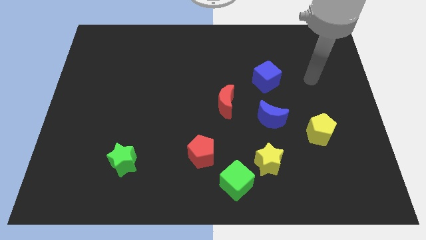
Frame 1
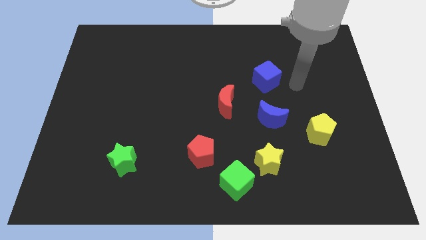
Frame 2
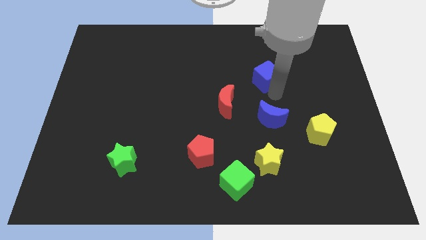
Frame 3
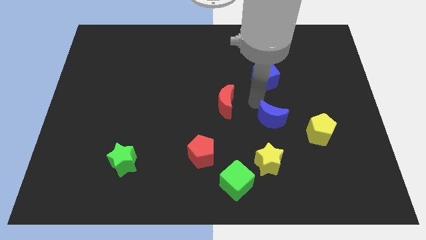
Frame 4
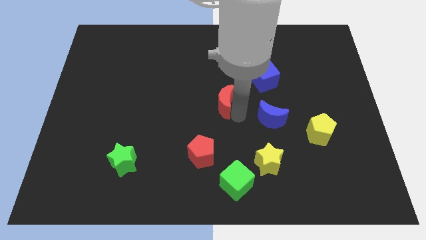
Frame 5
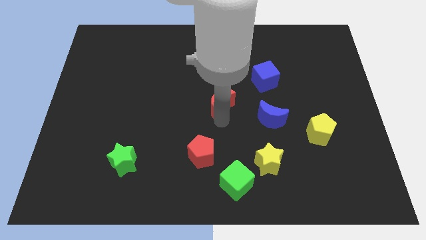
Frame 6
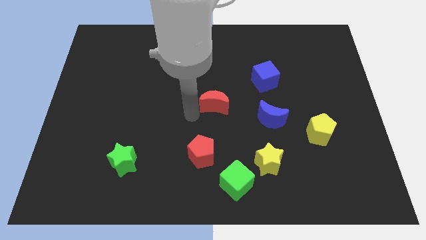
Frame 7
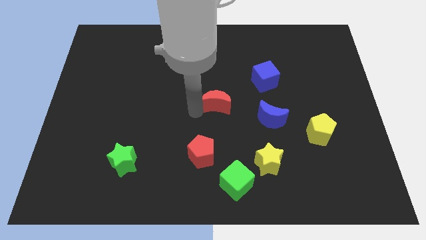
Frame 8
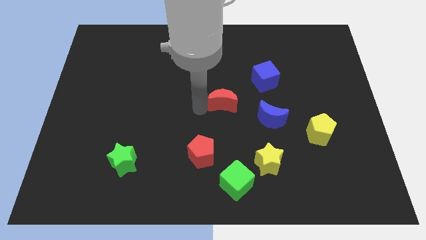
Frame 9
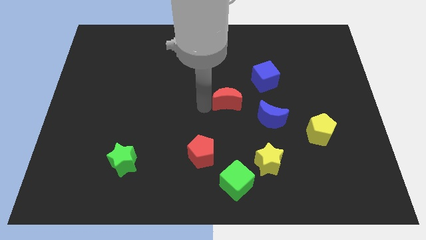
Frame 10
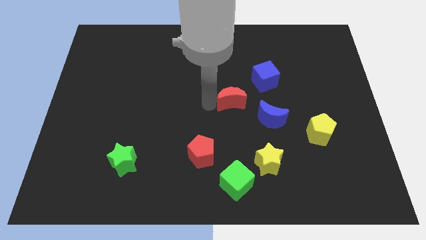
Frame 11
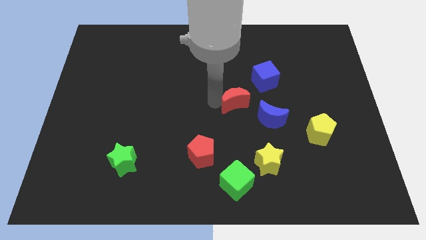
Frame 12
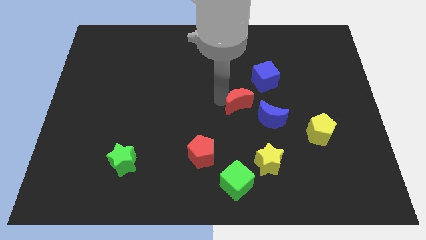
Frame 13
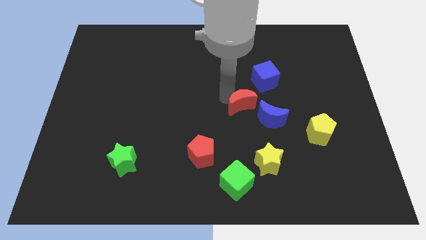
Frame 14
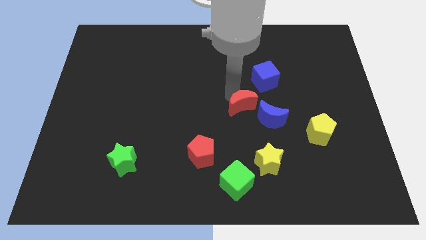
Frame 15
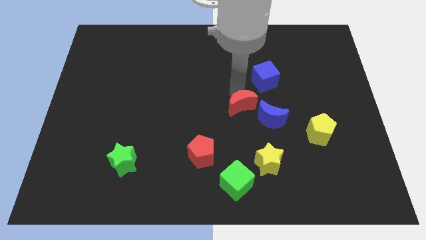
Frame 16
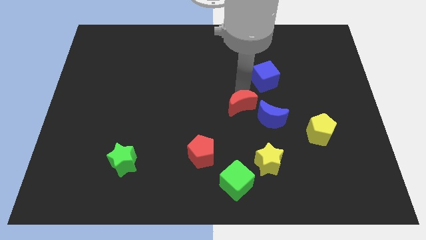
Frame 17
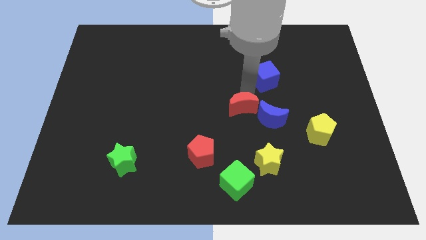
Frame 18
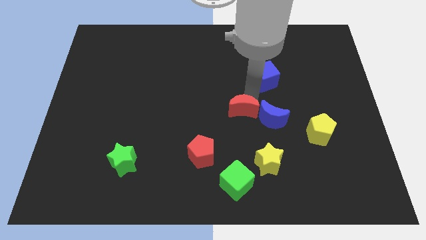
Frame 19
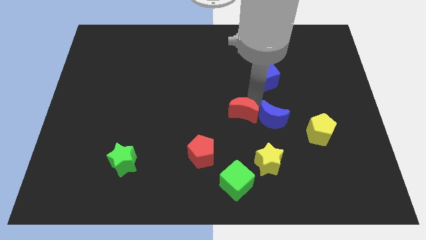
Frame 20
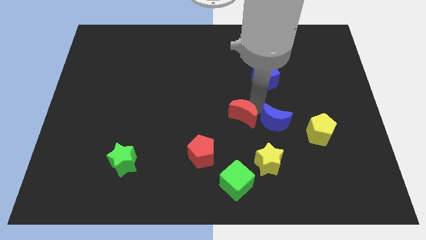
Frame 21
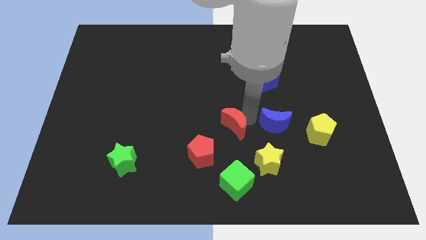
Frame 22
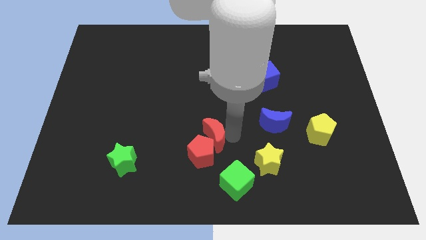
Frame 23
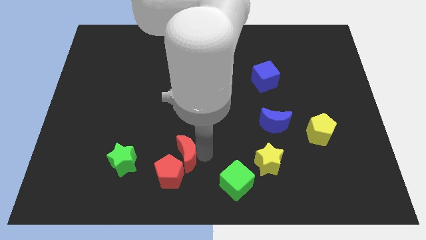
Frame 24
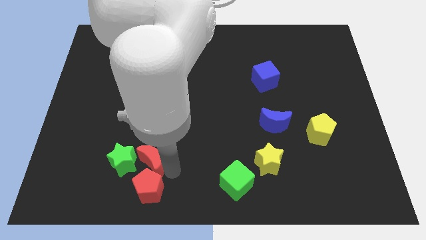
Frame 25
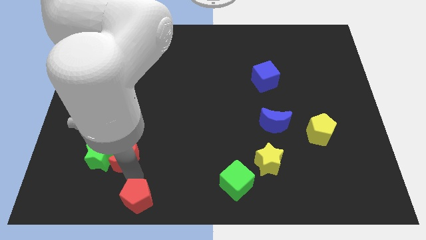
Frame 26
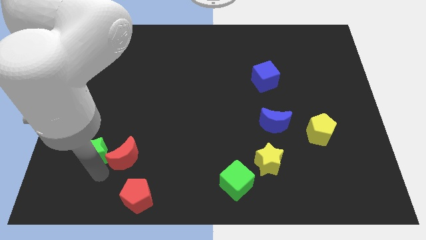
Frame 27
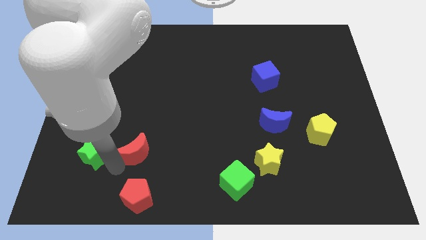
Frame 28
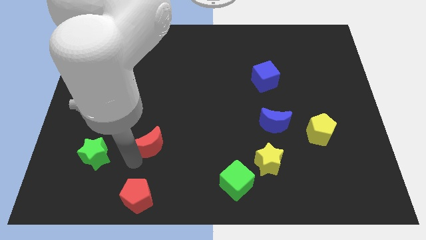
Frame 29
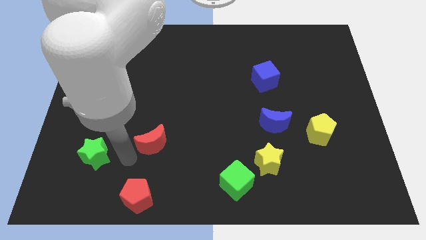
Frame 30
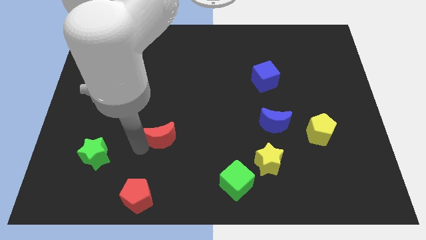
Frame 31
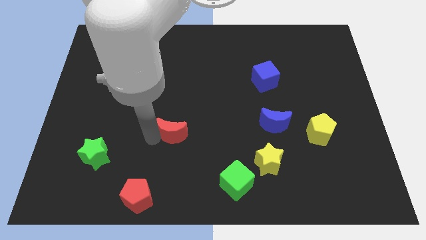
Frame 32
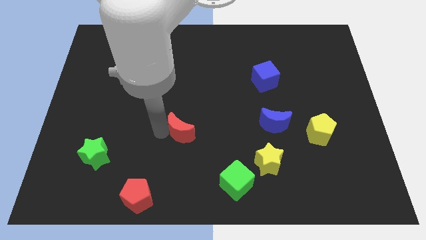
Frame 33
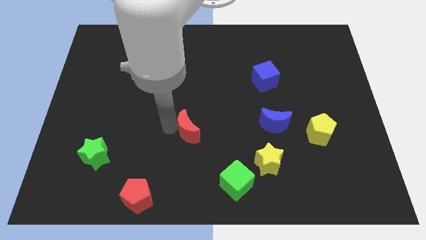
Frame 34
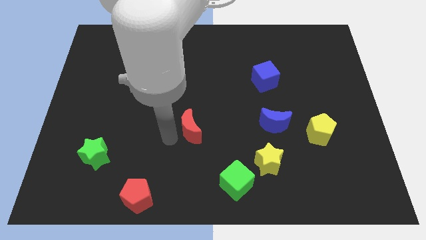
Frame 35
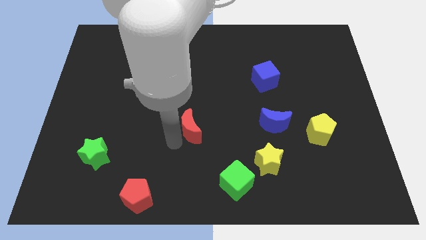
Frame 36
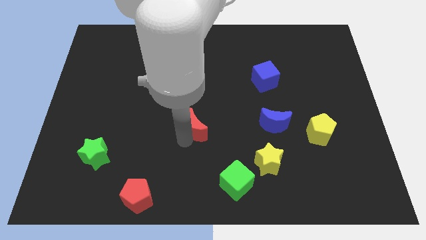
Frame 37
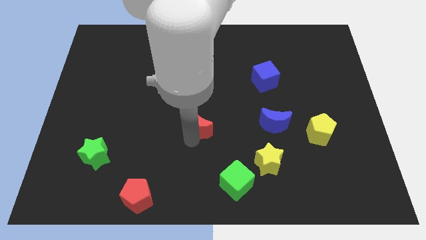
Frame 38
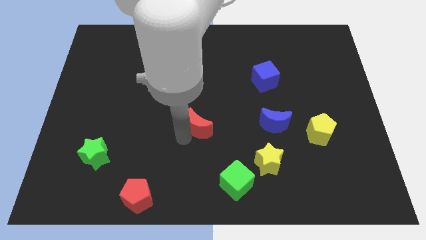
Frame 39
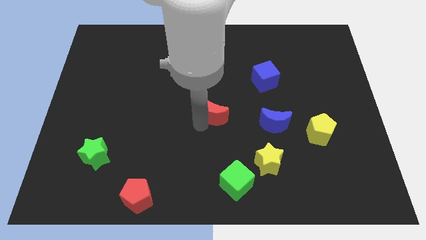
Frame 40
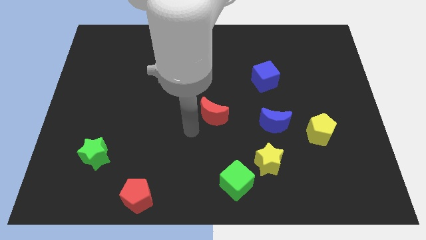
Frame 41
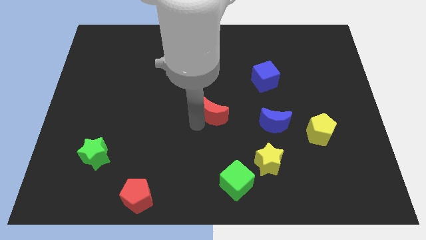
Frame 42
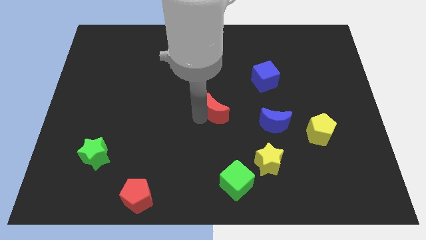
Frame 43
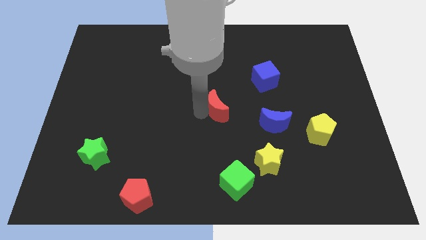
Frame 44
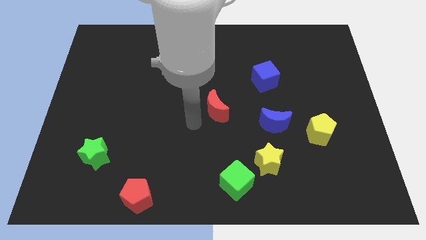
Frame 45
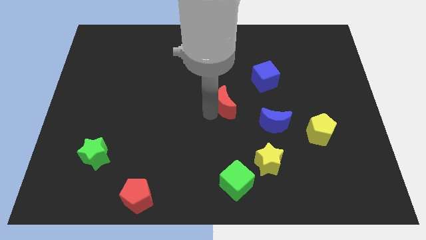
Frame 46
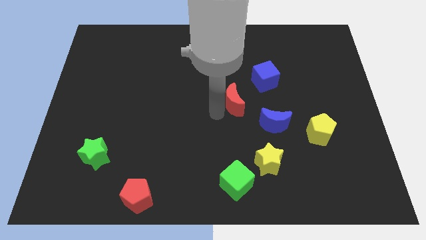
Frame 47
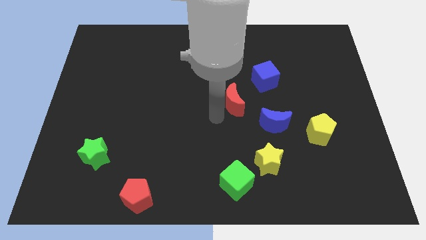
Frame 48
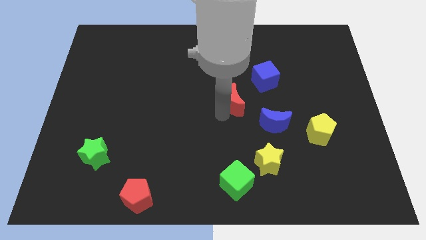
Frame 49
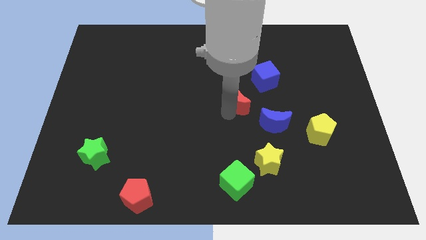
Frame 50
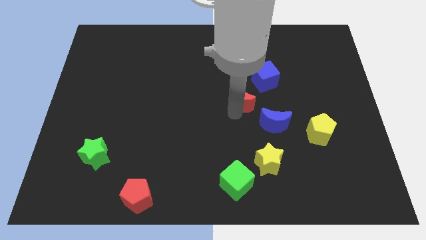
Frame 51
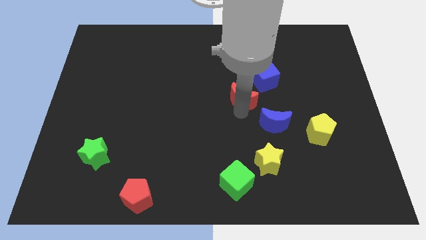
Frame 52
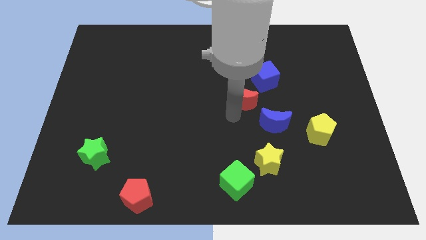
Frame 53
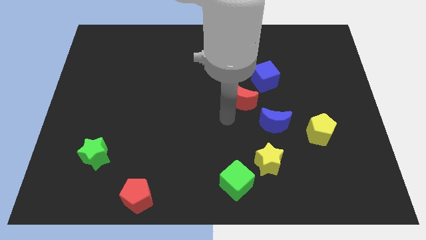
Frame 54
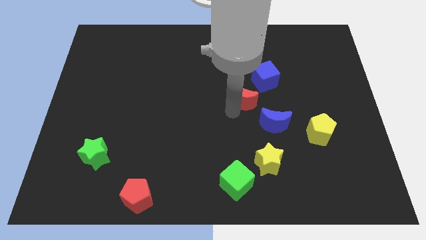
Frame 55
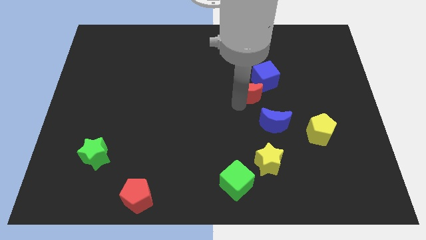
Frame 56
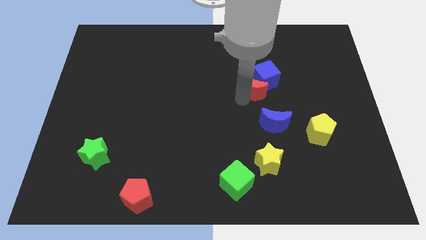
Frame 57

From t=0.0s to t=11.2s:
put the red moon close to the blue cube
